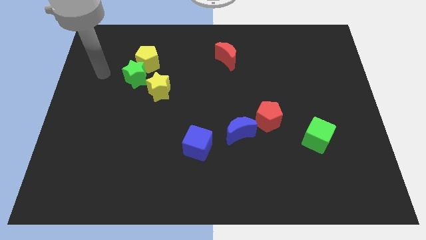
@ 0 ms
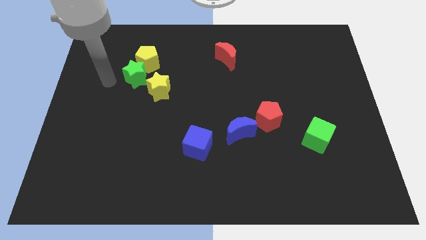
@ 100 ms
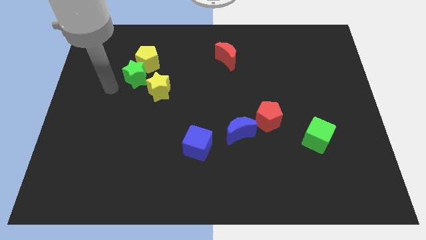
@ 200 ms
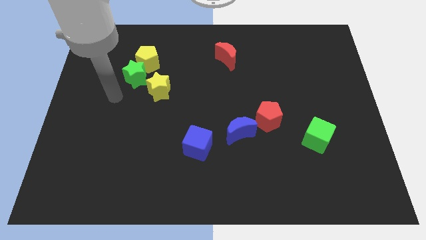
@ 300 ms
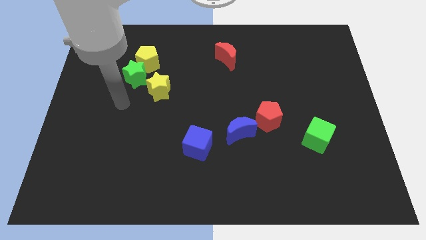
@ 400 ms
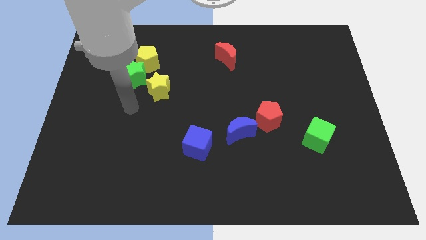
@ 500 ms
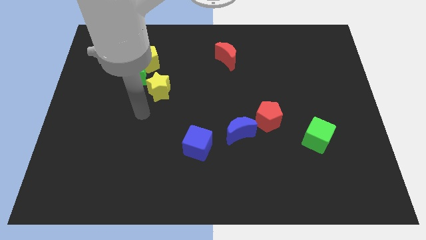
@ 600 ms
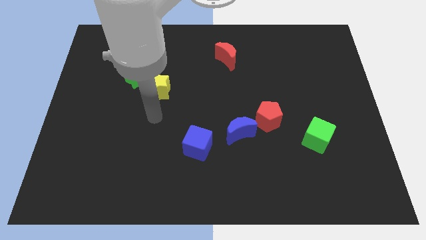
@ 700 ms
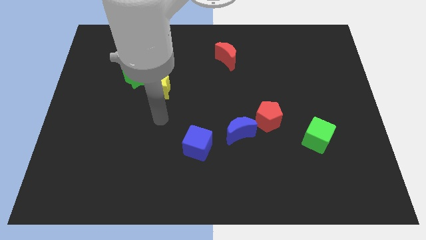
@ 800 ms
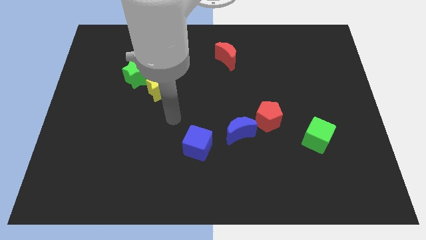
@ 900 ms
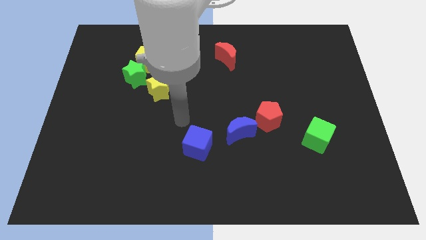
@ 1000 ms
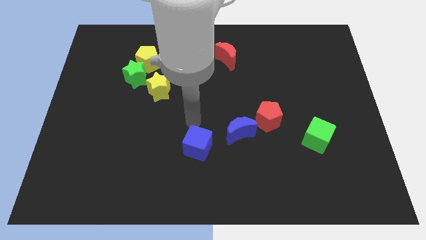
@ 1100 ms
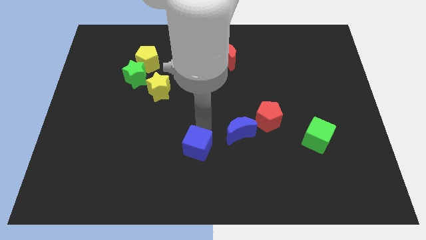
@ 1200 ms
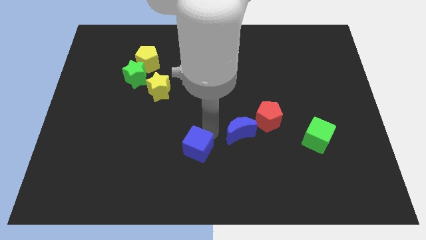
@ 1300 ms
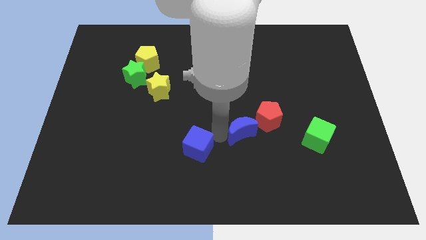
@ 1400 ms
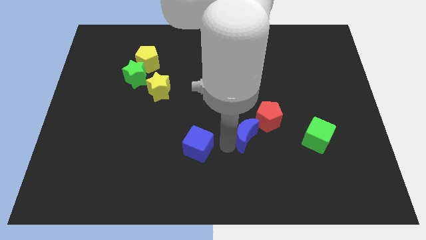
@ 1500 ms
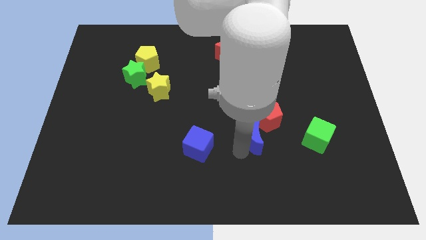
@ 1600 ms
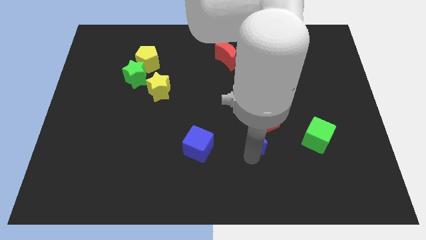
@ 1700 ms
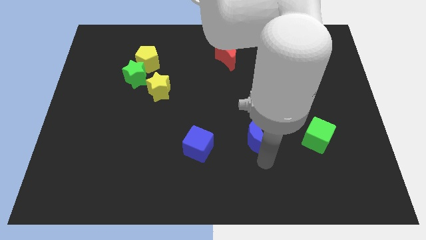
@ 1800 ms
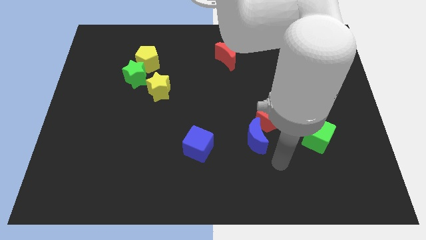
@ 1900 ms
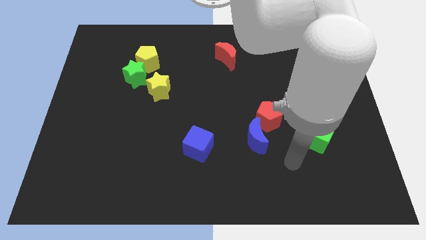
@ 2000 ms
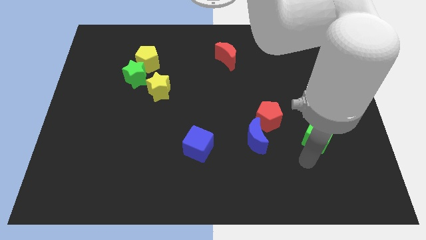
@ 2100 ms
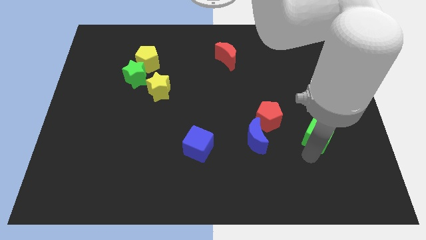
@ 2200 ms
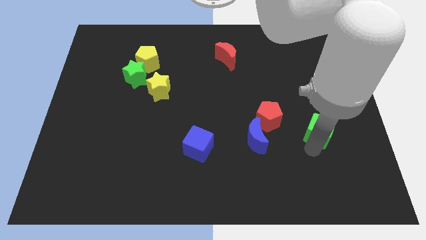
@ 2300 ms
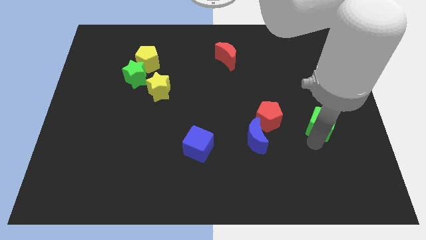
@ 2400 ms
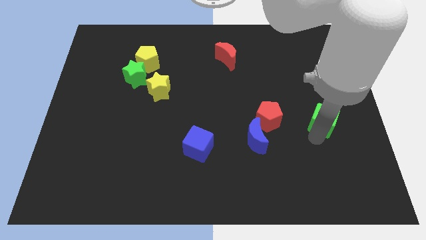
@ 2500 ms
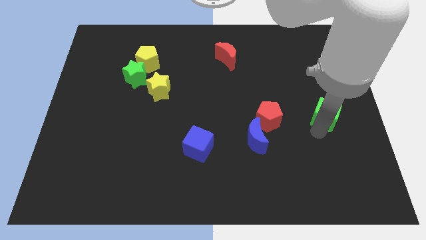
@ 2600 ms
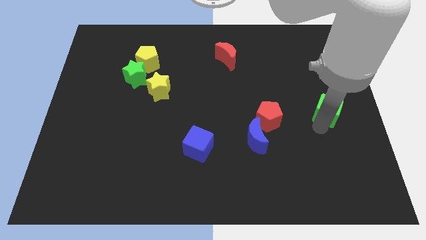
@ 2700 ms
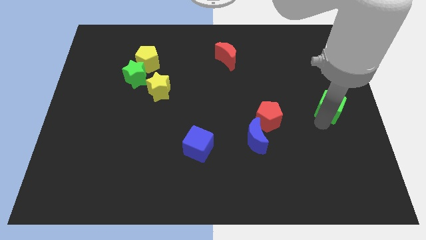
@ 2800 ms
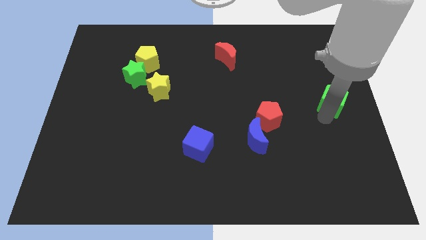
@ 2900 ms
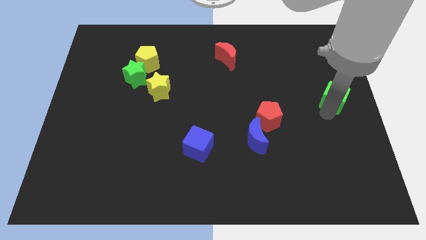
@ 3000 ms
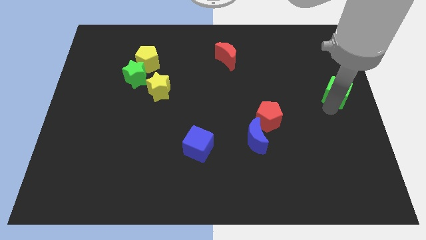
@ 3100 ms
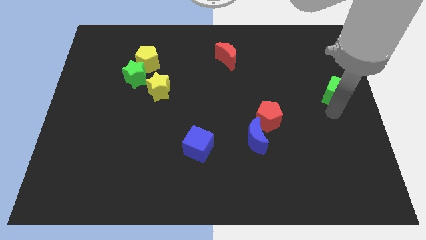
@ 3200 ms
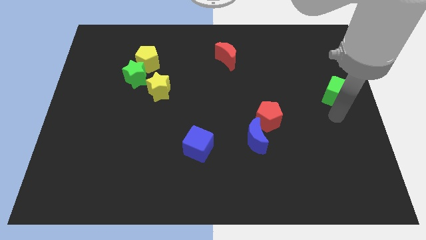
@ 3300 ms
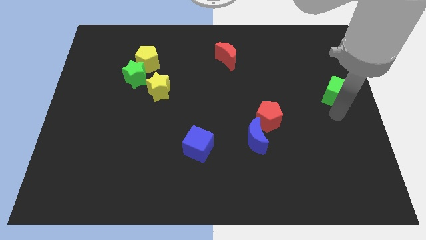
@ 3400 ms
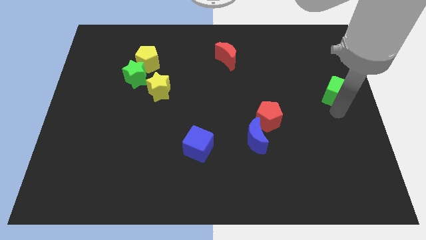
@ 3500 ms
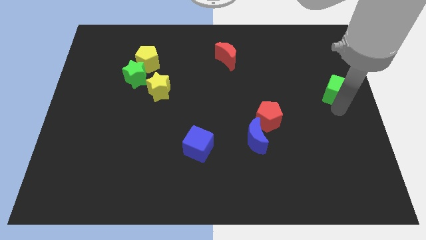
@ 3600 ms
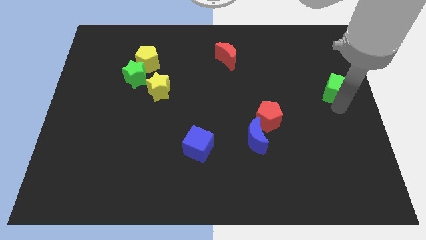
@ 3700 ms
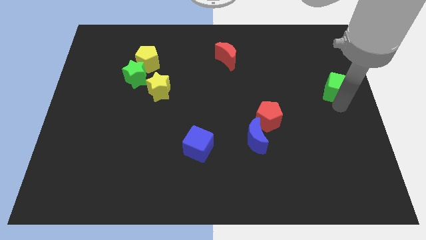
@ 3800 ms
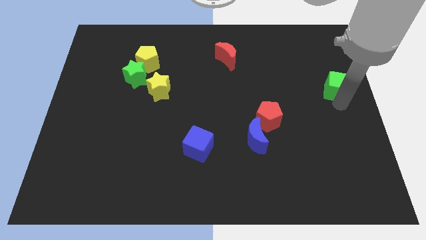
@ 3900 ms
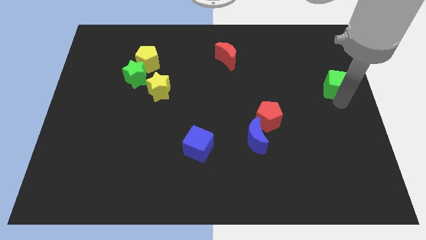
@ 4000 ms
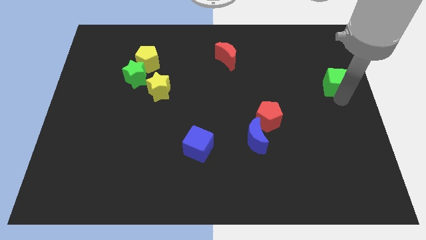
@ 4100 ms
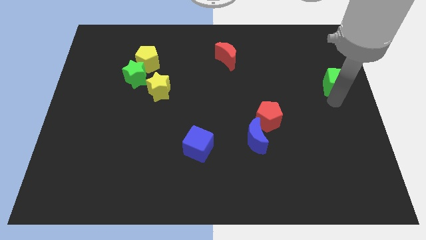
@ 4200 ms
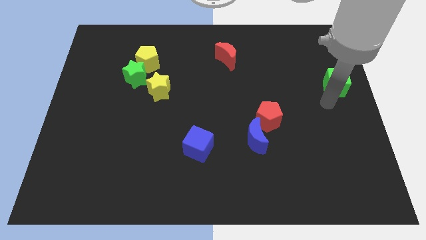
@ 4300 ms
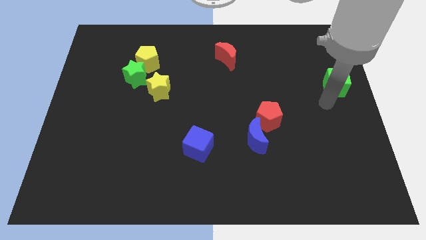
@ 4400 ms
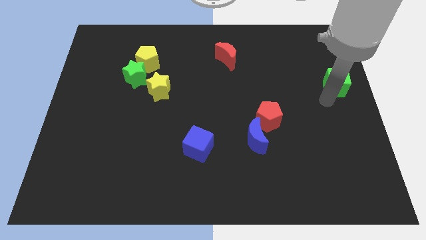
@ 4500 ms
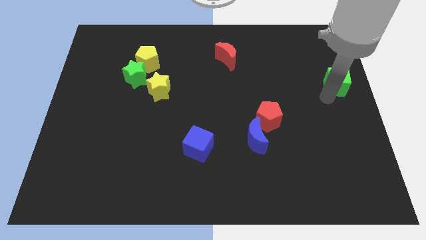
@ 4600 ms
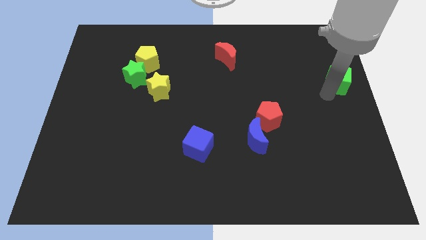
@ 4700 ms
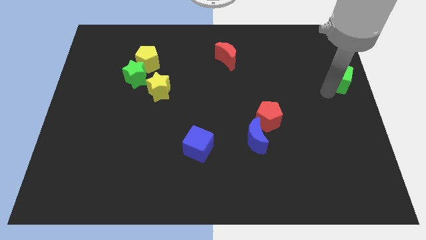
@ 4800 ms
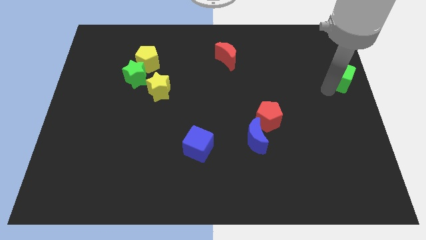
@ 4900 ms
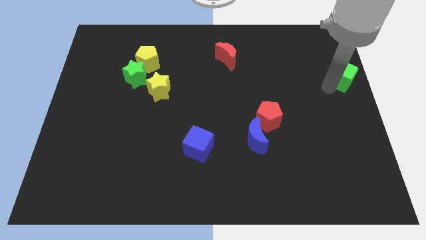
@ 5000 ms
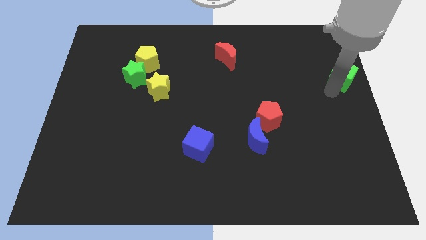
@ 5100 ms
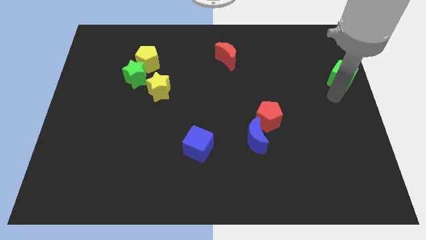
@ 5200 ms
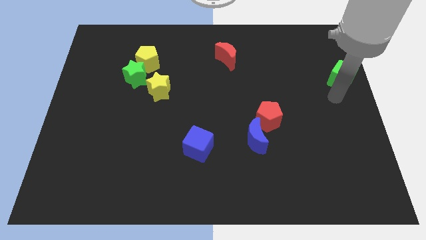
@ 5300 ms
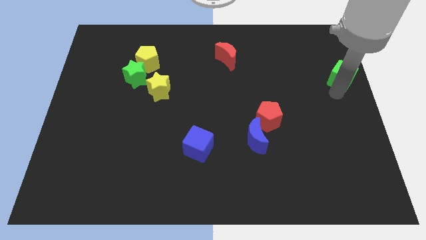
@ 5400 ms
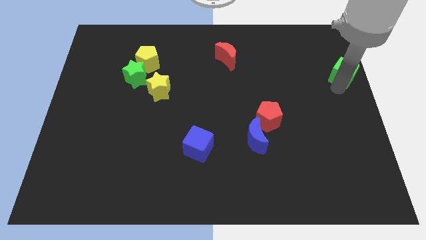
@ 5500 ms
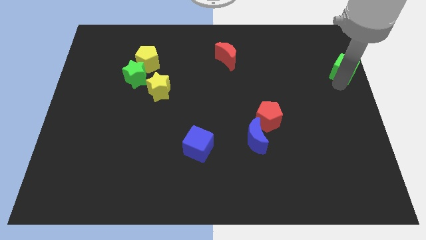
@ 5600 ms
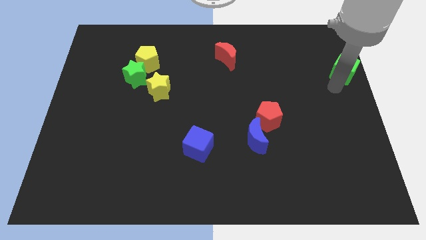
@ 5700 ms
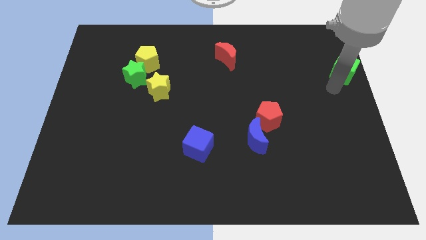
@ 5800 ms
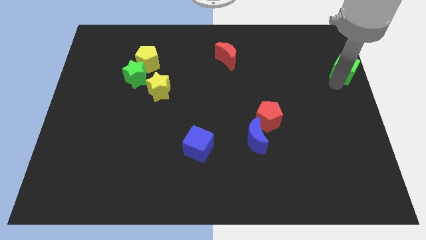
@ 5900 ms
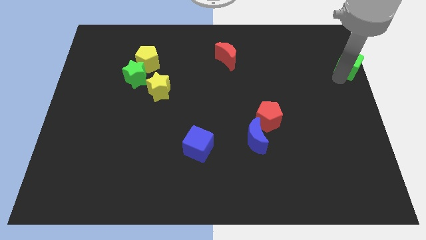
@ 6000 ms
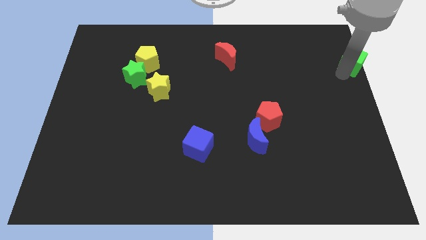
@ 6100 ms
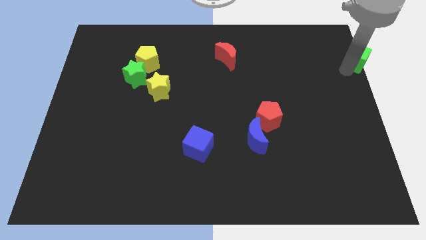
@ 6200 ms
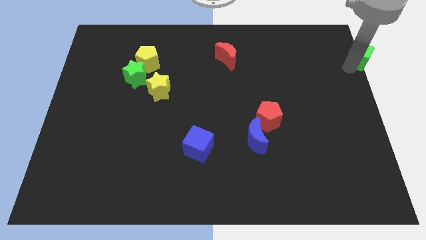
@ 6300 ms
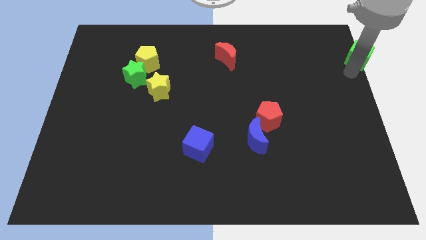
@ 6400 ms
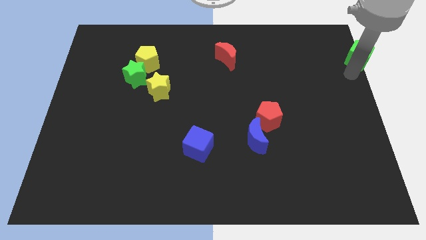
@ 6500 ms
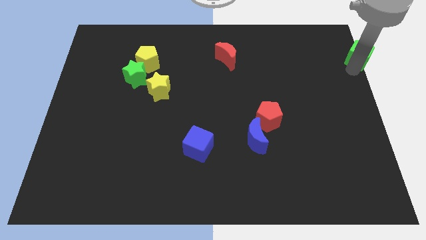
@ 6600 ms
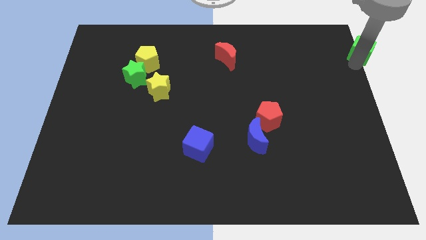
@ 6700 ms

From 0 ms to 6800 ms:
slide the green cube to the top right

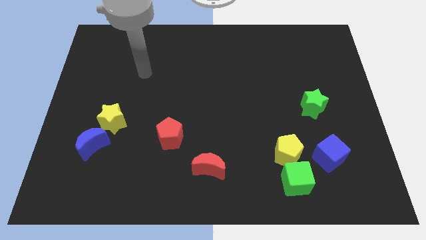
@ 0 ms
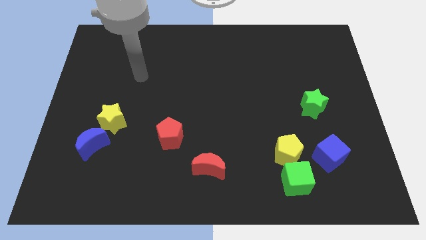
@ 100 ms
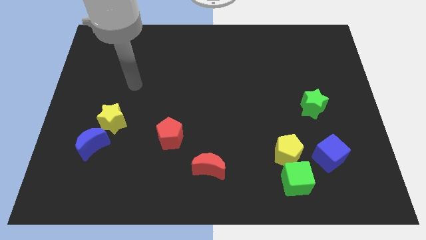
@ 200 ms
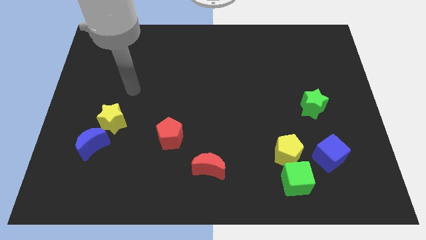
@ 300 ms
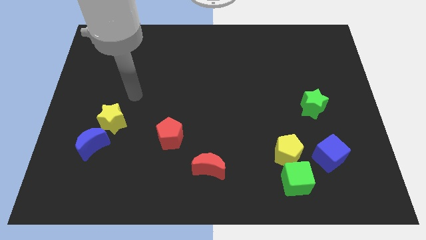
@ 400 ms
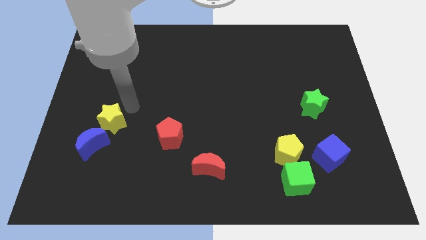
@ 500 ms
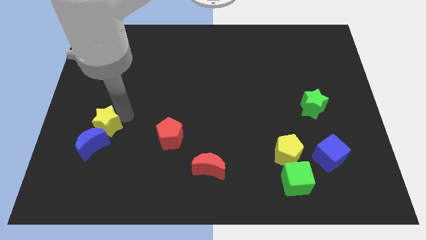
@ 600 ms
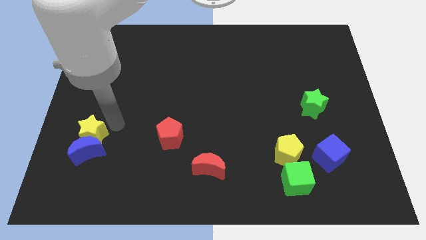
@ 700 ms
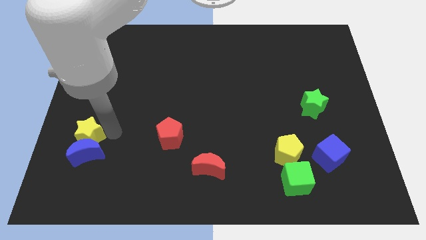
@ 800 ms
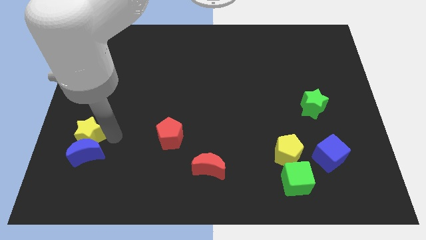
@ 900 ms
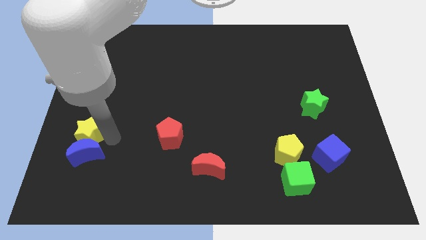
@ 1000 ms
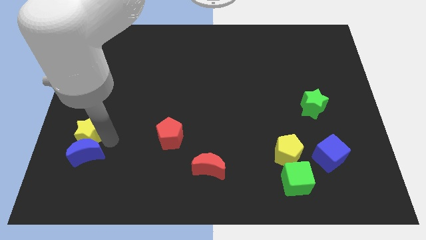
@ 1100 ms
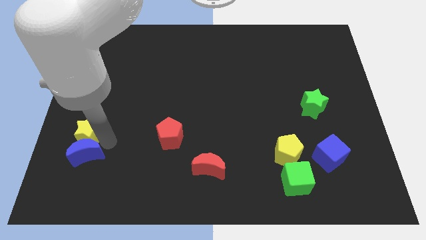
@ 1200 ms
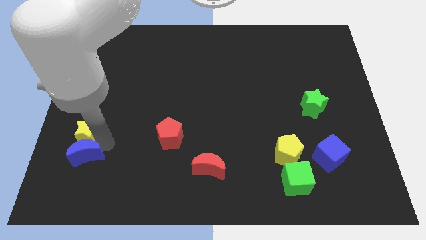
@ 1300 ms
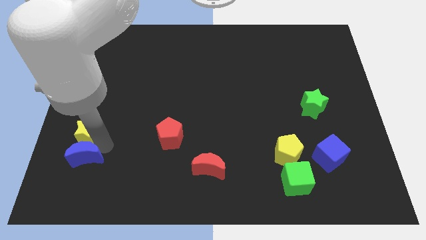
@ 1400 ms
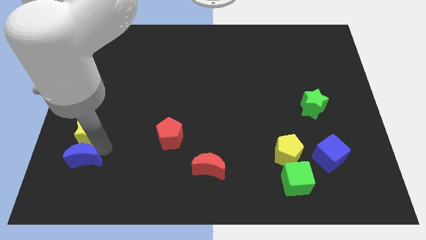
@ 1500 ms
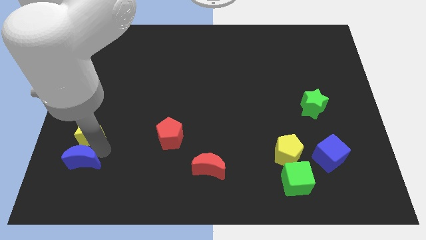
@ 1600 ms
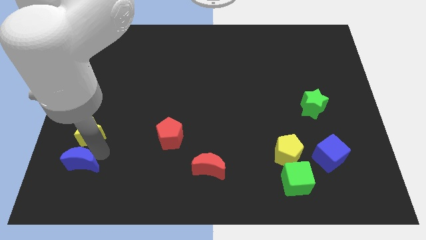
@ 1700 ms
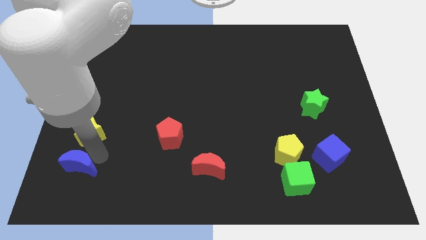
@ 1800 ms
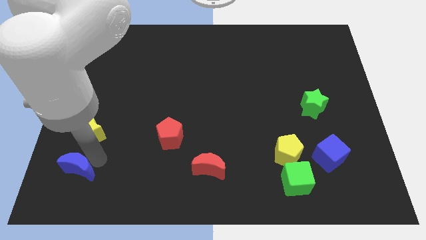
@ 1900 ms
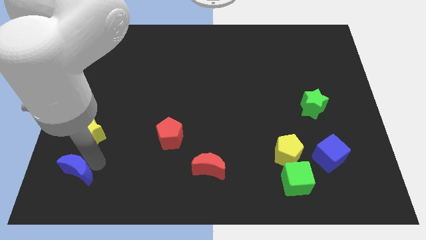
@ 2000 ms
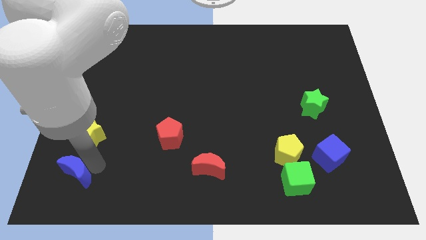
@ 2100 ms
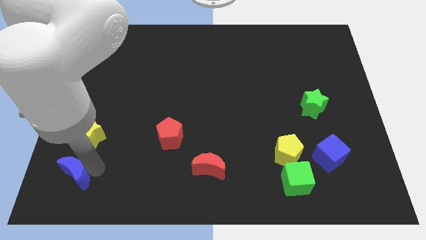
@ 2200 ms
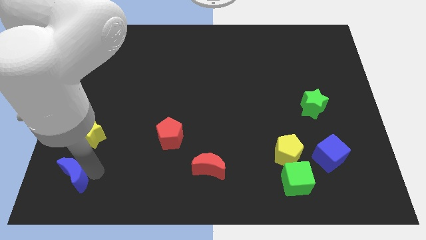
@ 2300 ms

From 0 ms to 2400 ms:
put the blue moon to the bottom left
